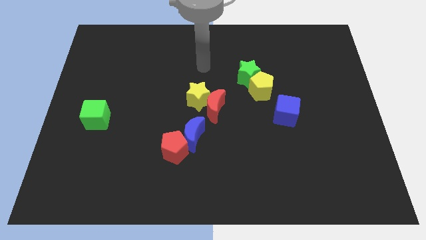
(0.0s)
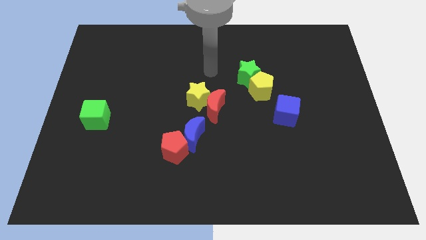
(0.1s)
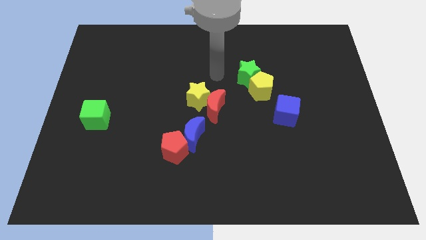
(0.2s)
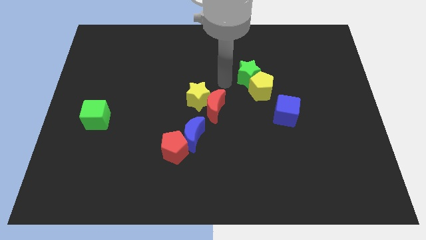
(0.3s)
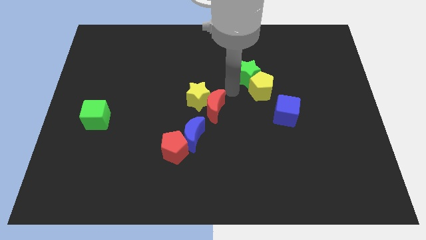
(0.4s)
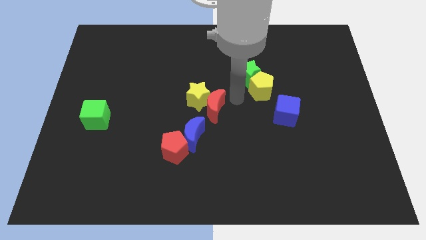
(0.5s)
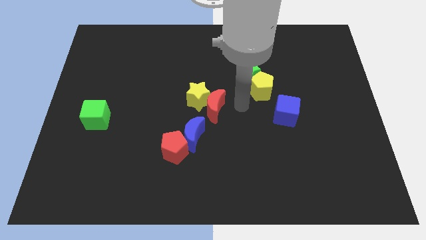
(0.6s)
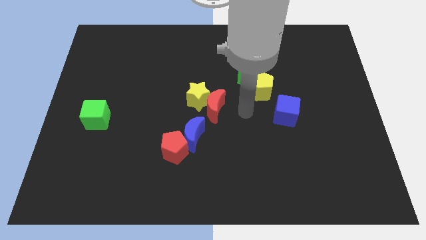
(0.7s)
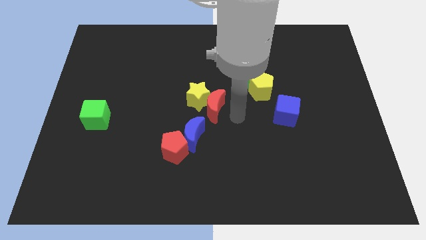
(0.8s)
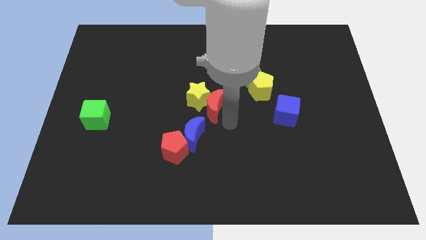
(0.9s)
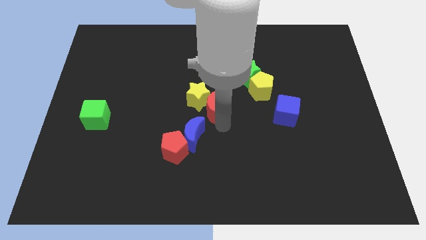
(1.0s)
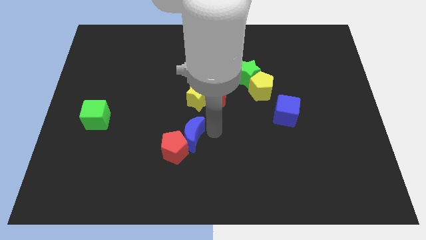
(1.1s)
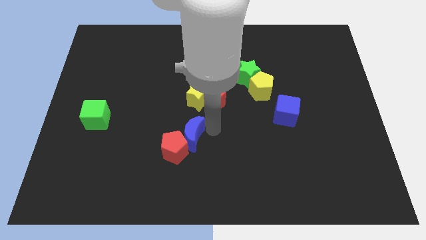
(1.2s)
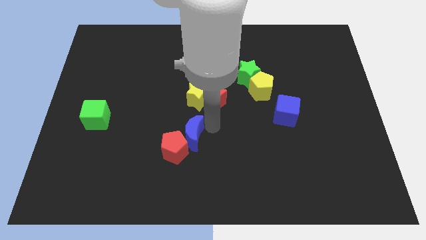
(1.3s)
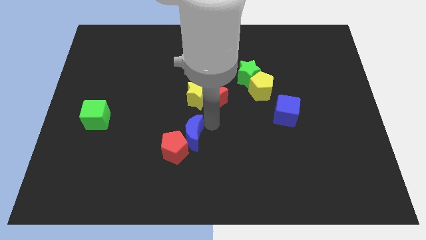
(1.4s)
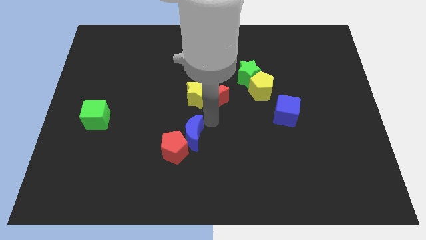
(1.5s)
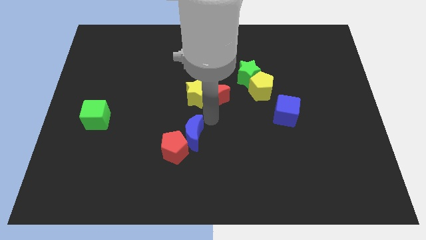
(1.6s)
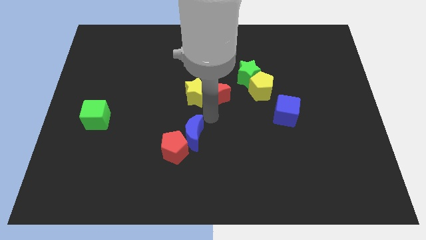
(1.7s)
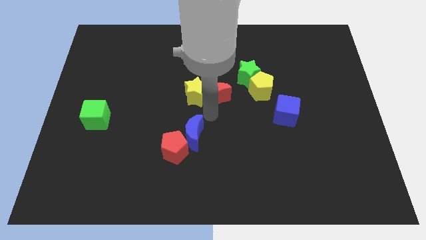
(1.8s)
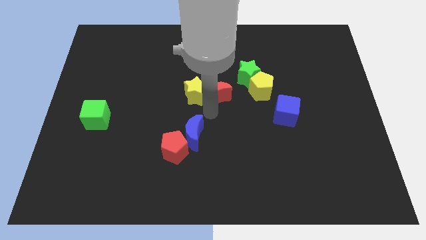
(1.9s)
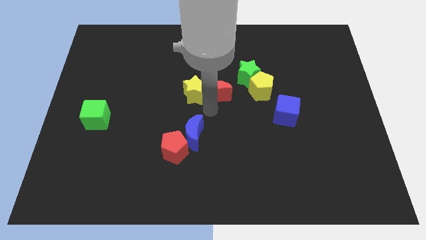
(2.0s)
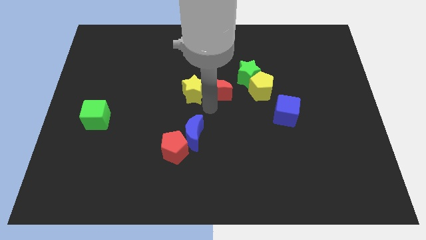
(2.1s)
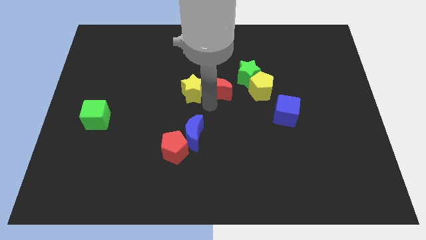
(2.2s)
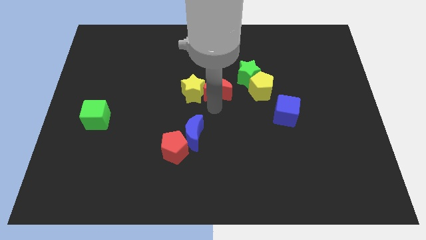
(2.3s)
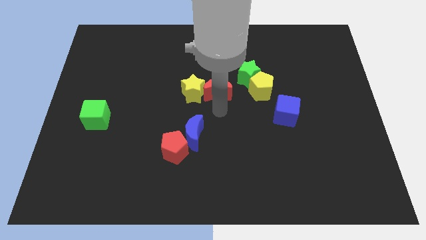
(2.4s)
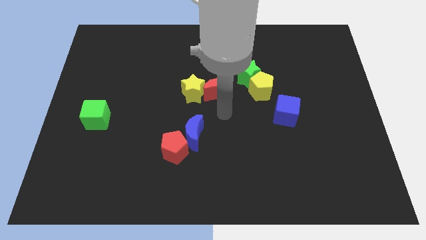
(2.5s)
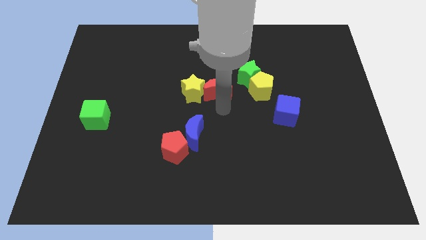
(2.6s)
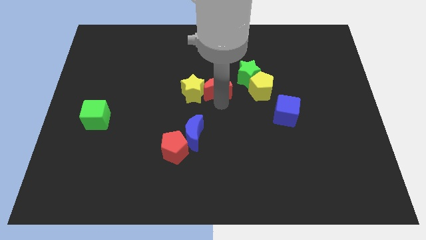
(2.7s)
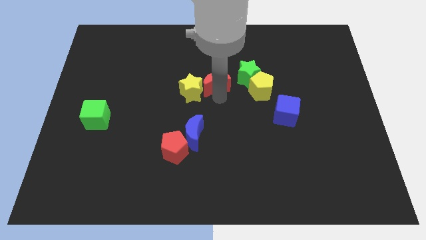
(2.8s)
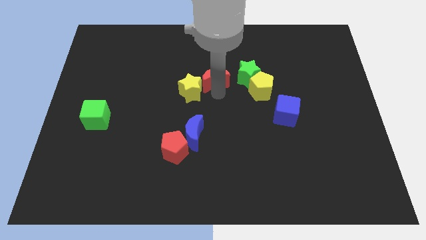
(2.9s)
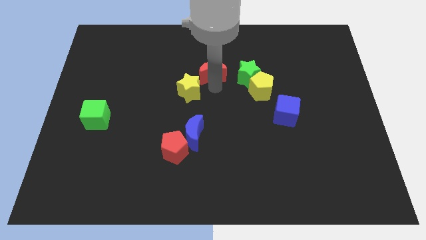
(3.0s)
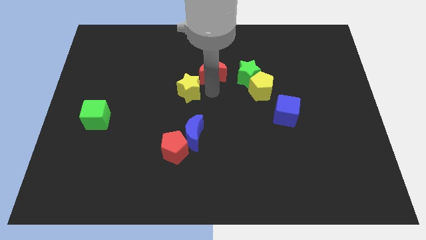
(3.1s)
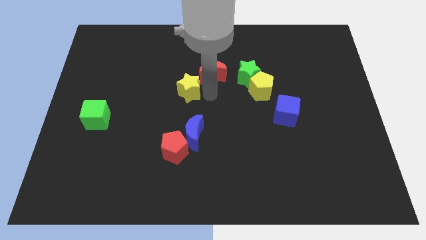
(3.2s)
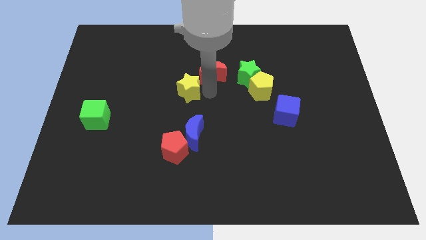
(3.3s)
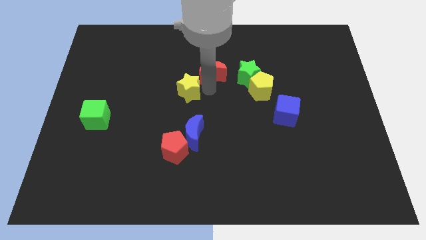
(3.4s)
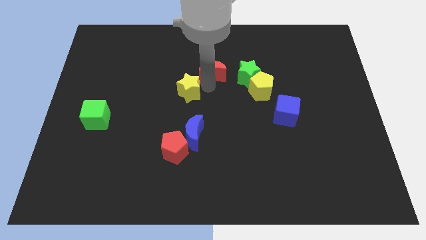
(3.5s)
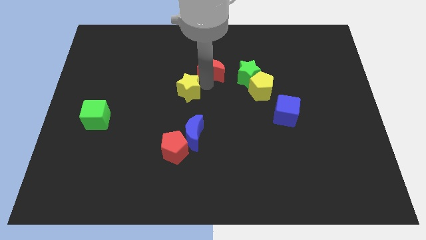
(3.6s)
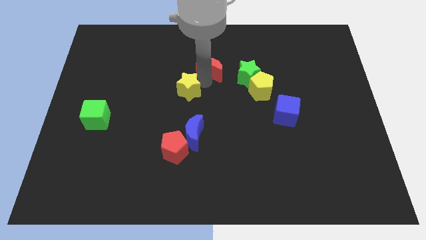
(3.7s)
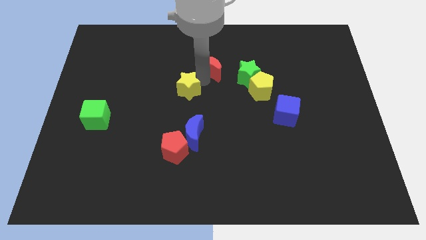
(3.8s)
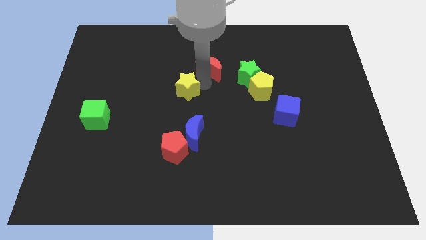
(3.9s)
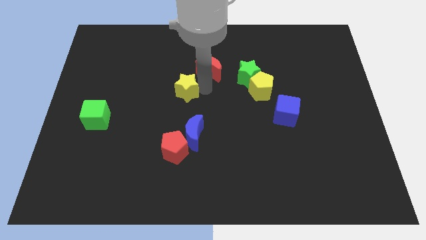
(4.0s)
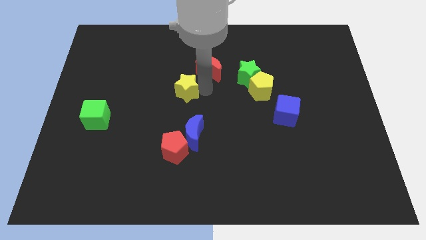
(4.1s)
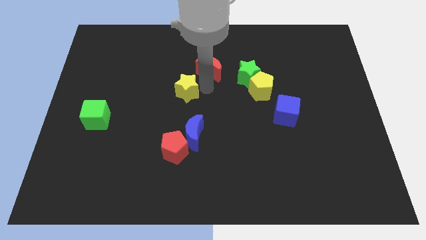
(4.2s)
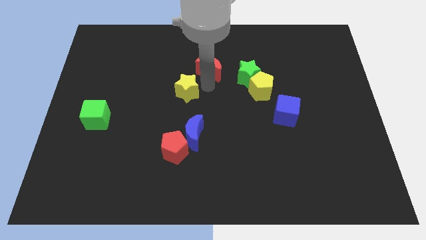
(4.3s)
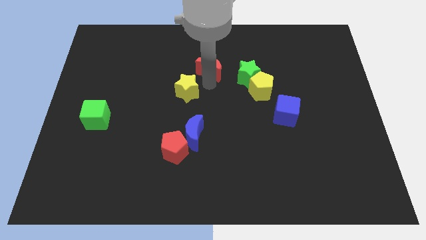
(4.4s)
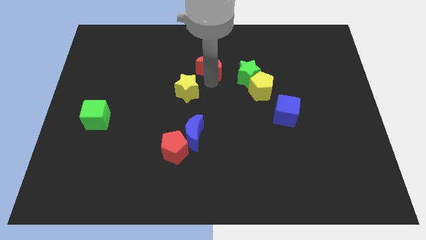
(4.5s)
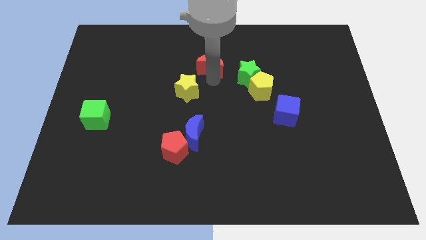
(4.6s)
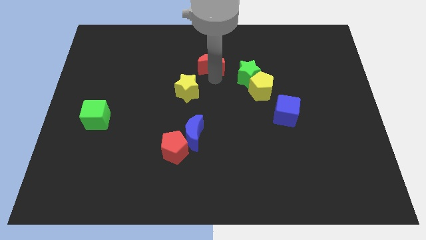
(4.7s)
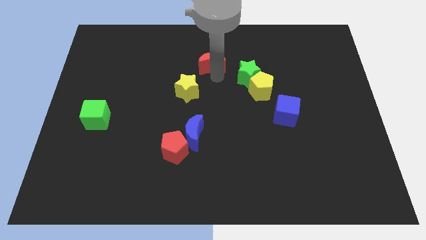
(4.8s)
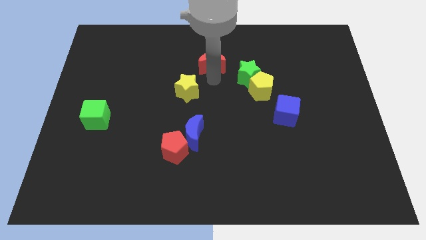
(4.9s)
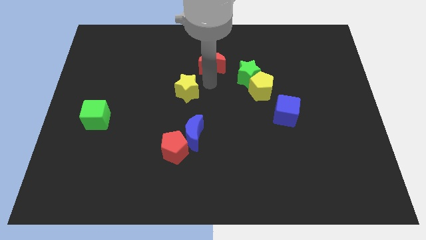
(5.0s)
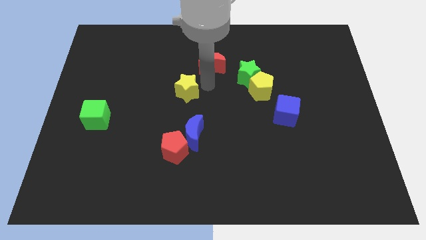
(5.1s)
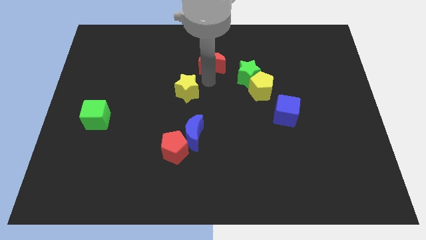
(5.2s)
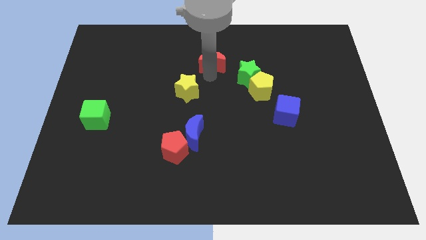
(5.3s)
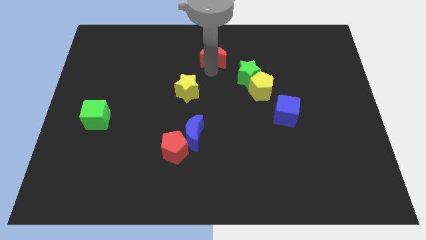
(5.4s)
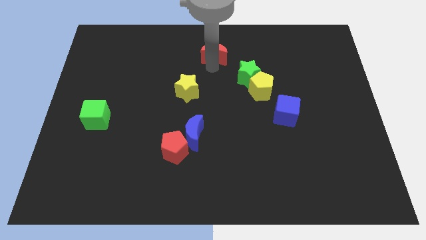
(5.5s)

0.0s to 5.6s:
slide the red moon to the top

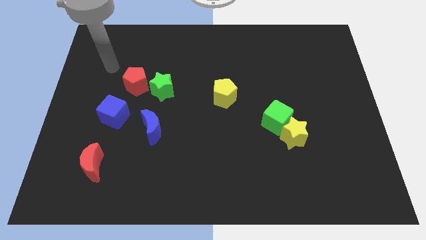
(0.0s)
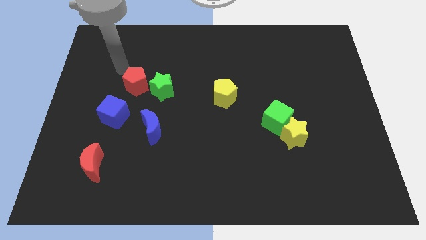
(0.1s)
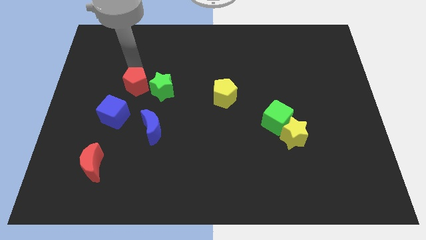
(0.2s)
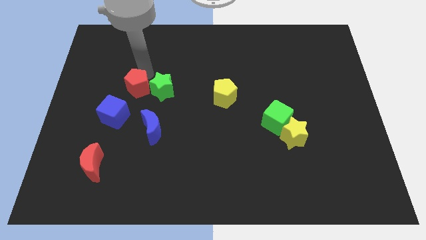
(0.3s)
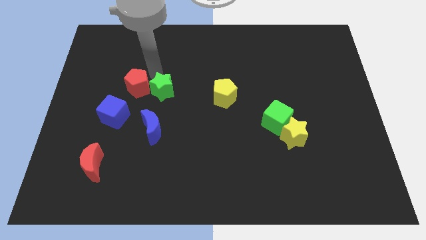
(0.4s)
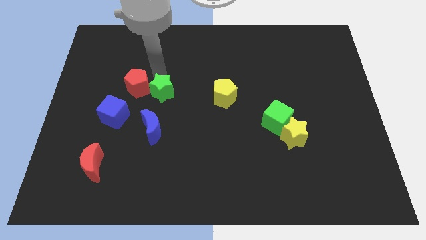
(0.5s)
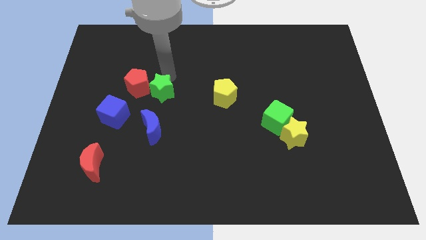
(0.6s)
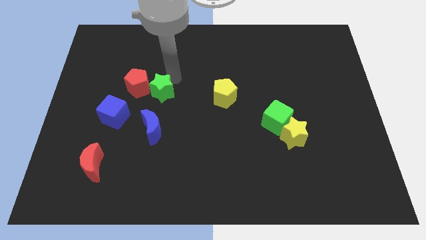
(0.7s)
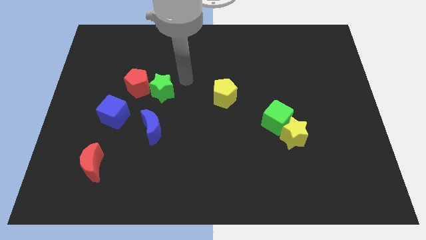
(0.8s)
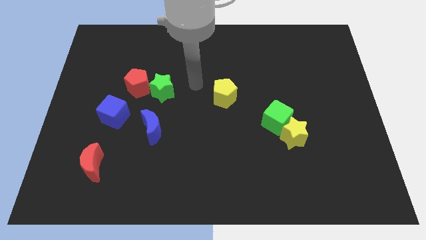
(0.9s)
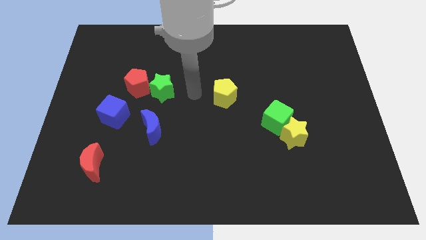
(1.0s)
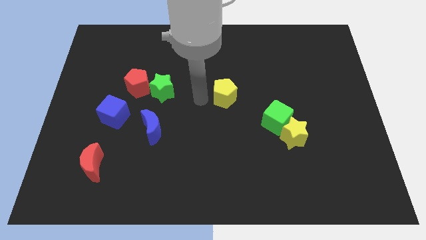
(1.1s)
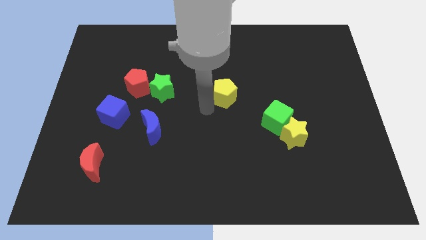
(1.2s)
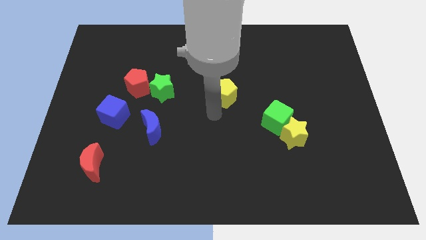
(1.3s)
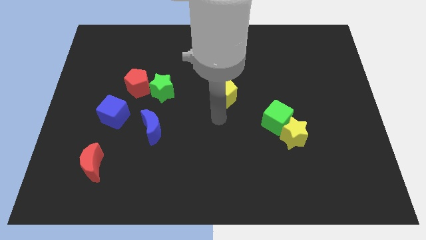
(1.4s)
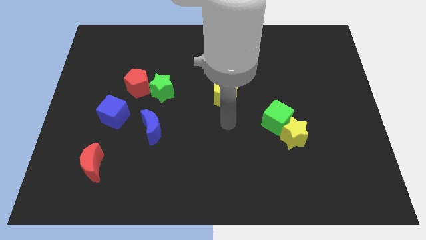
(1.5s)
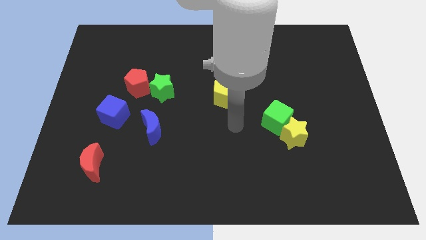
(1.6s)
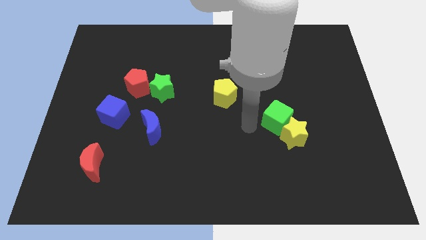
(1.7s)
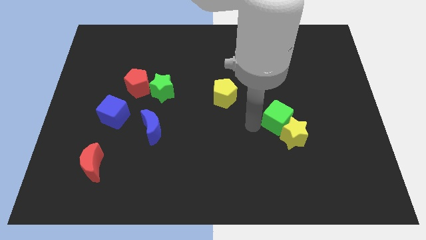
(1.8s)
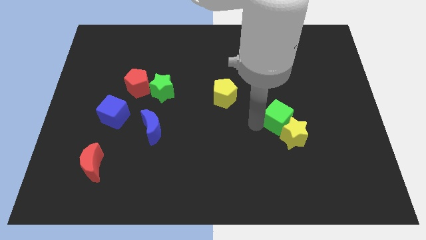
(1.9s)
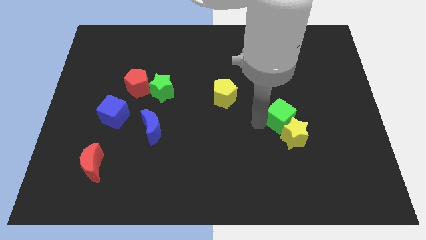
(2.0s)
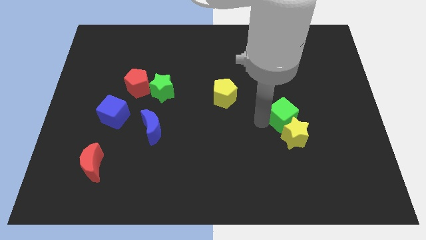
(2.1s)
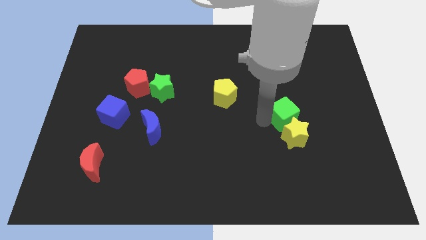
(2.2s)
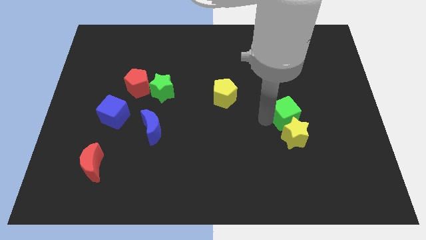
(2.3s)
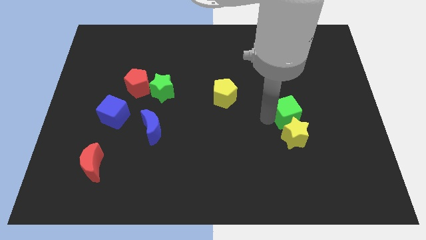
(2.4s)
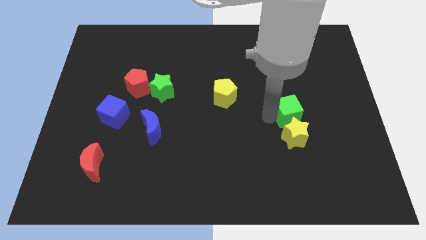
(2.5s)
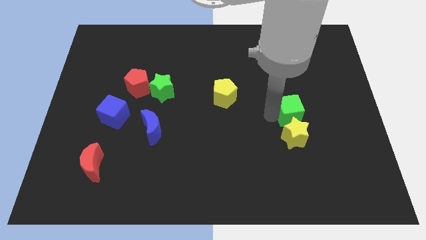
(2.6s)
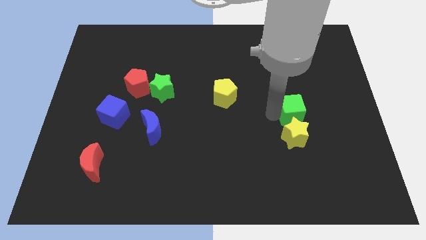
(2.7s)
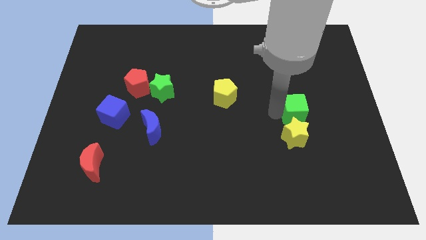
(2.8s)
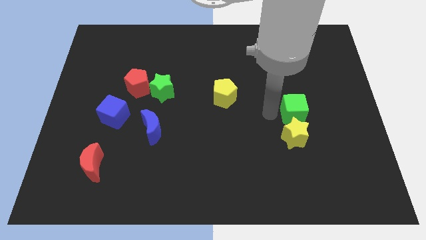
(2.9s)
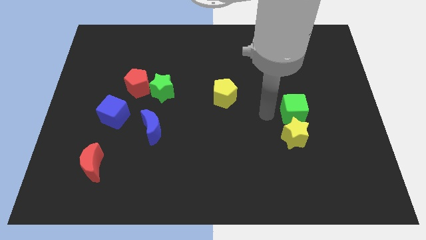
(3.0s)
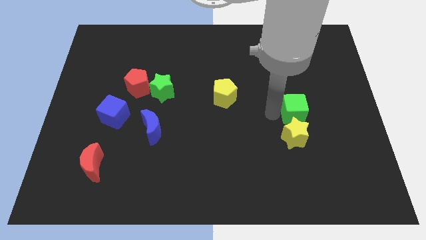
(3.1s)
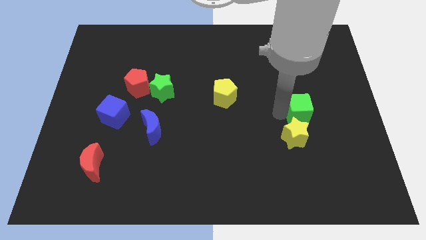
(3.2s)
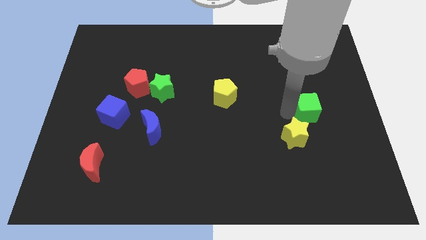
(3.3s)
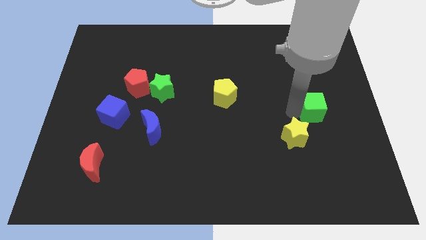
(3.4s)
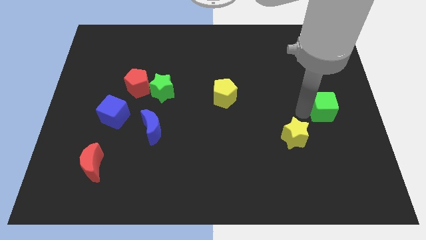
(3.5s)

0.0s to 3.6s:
slide the green cube to the right side of the board
